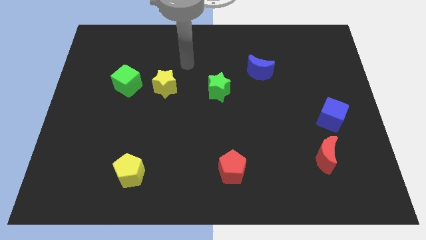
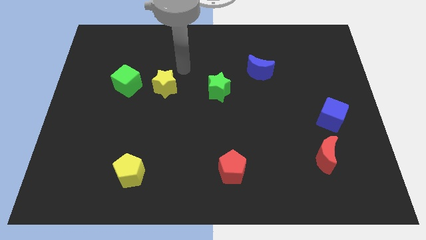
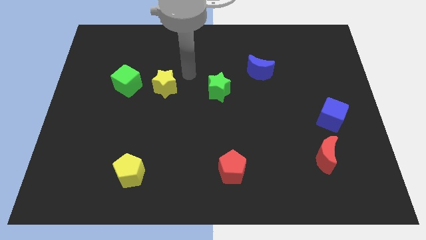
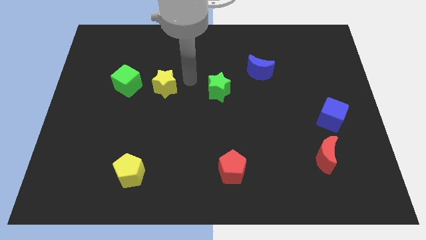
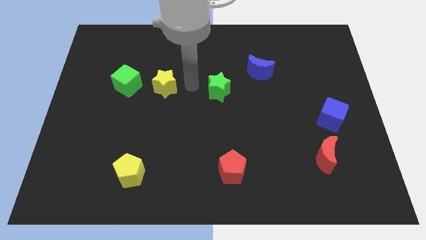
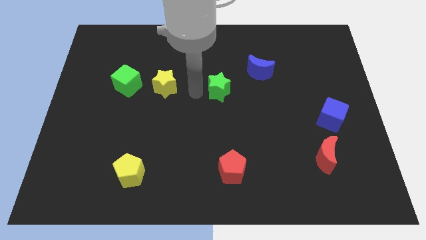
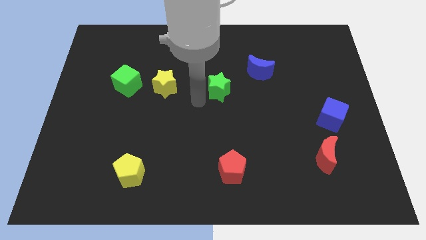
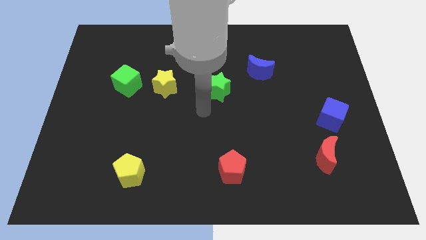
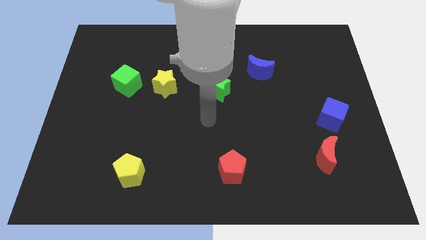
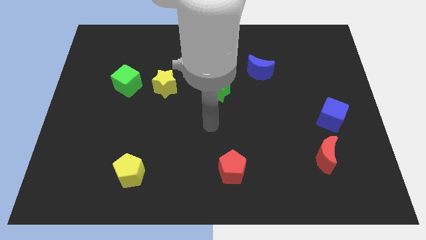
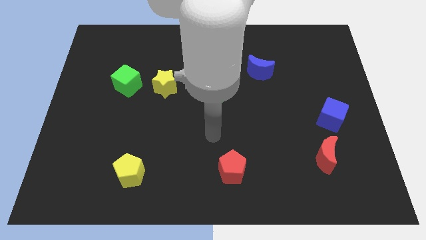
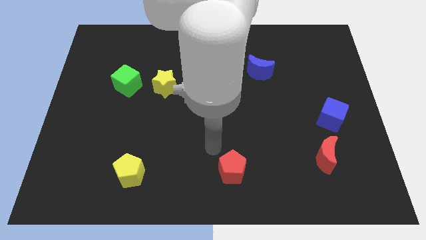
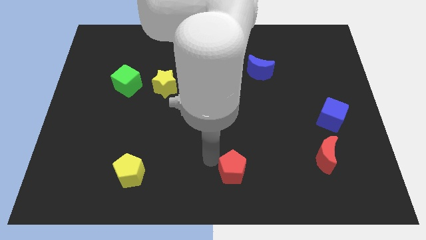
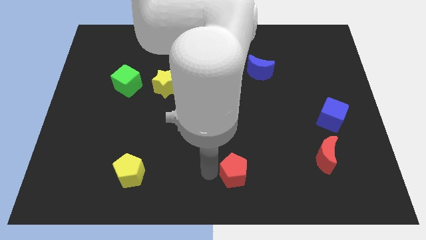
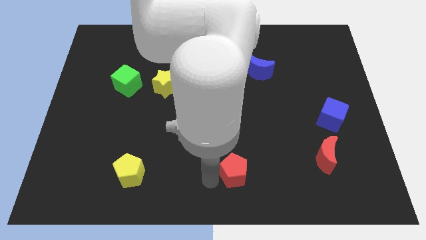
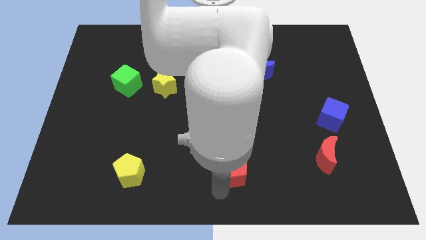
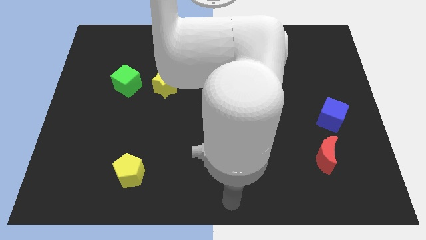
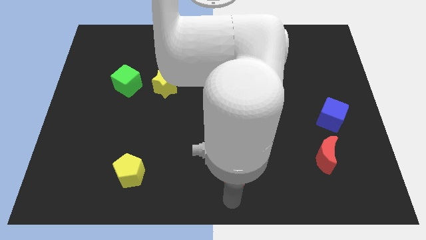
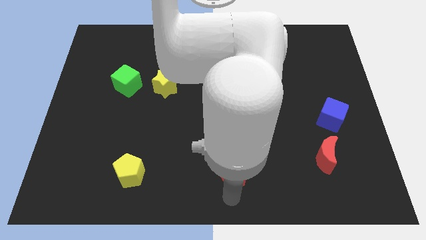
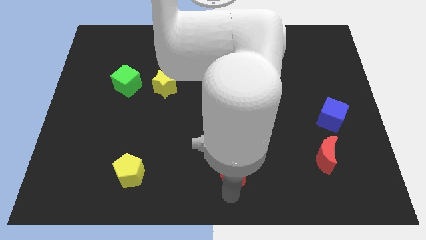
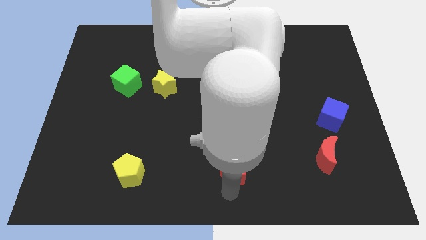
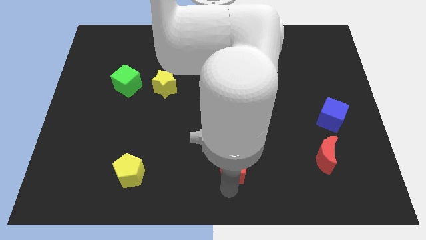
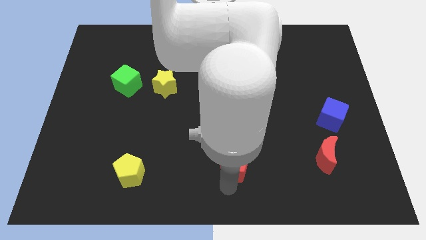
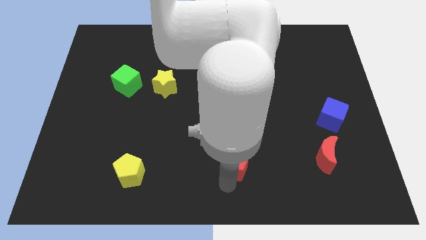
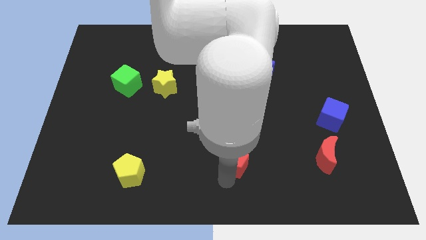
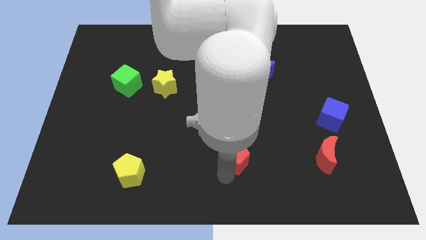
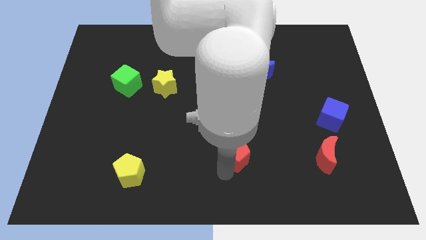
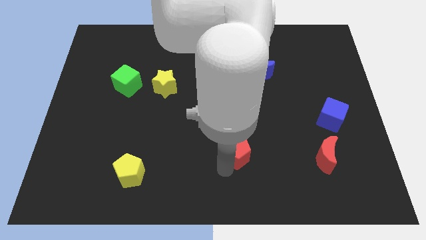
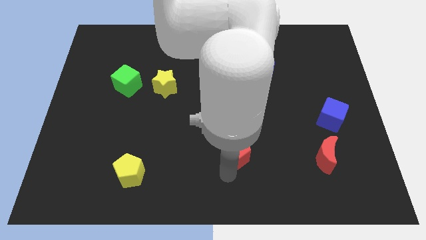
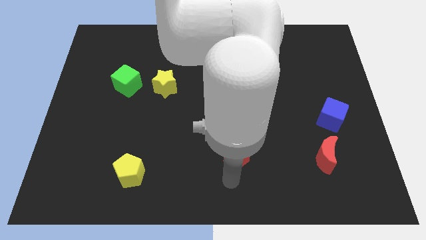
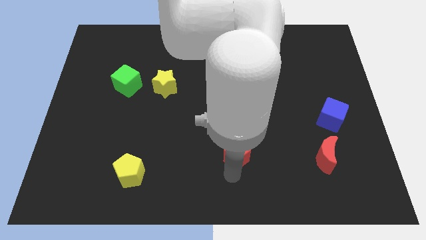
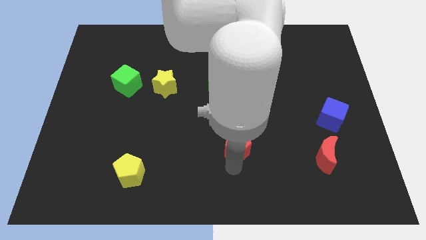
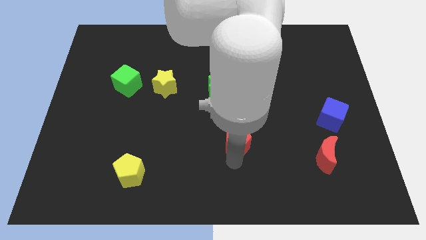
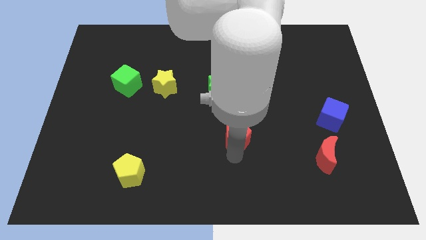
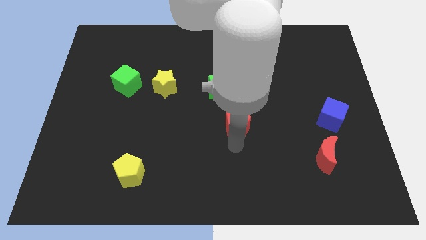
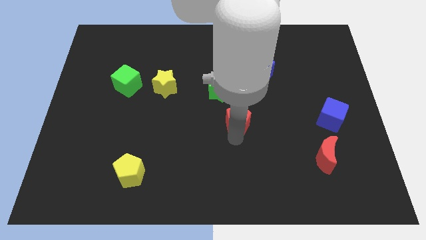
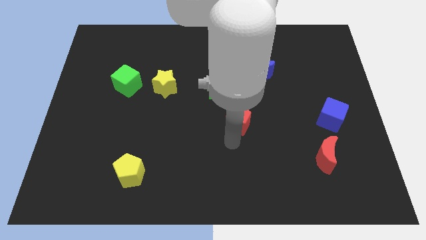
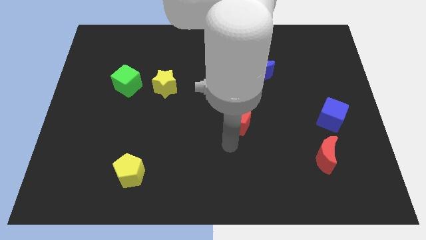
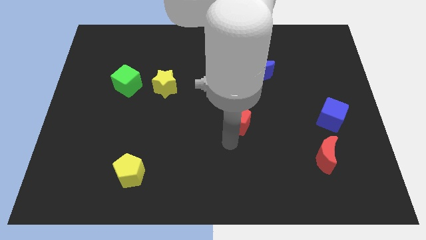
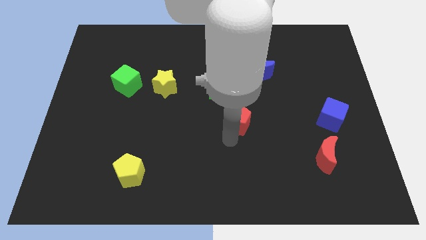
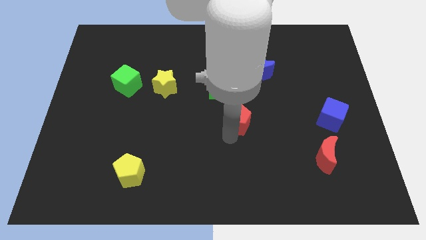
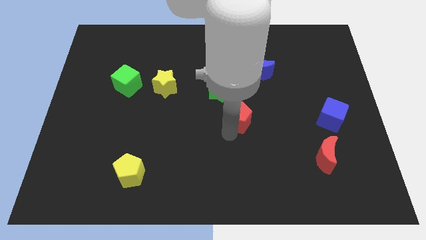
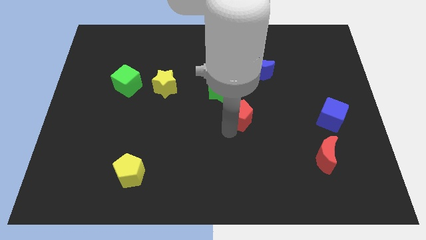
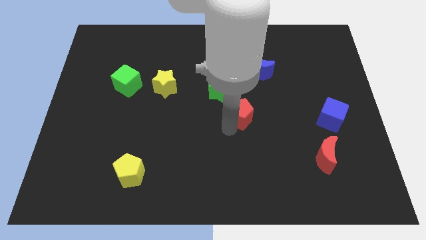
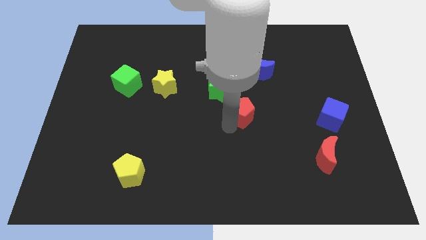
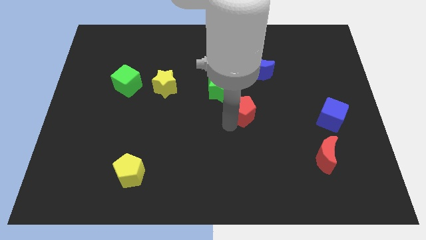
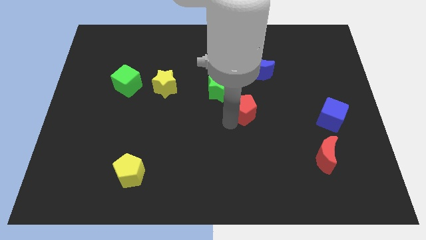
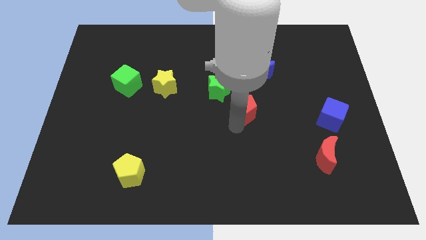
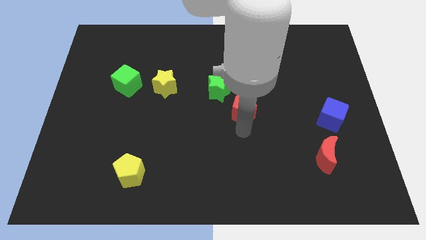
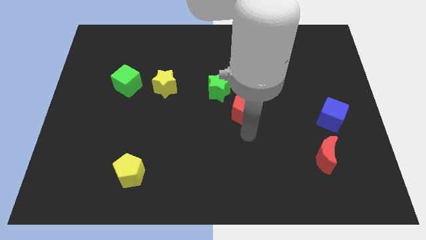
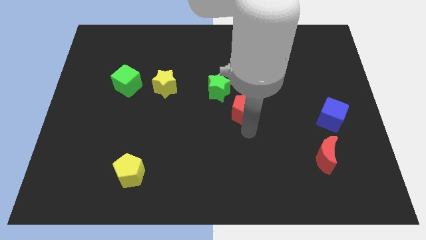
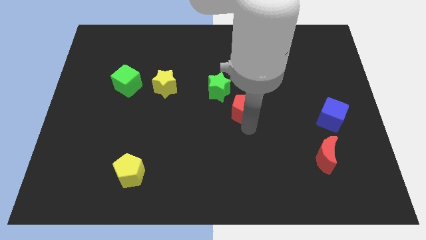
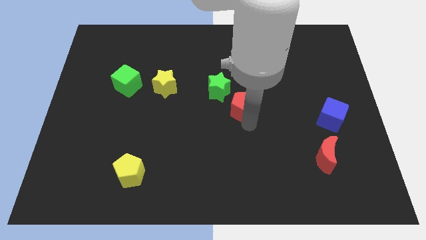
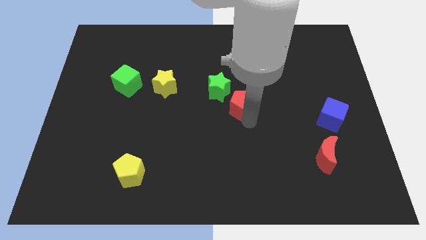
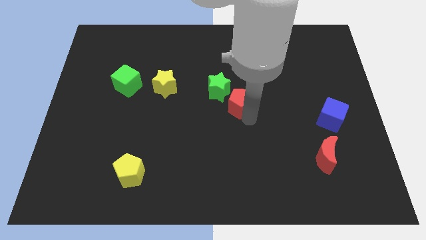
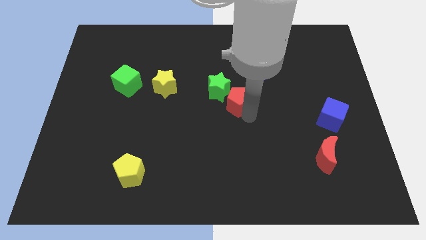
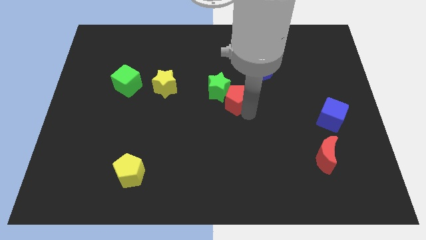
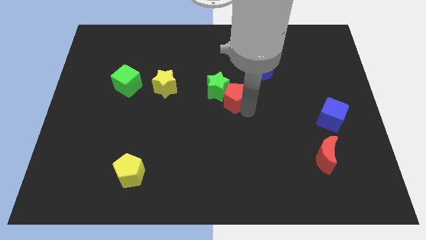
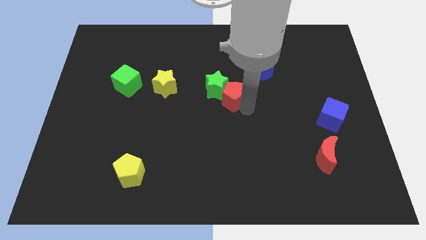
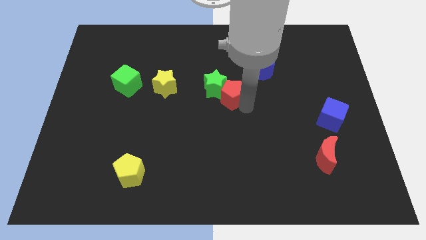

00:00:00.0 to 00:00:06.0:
push the red pentagon upwards

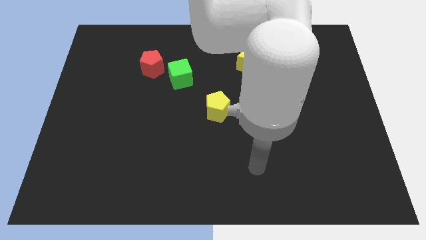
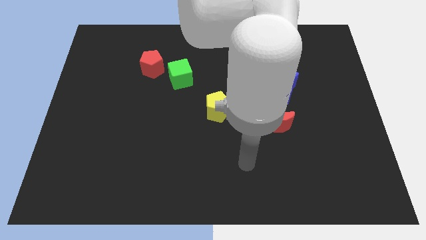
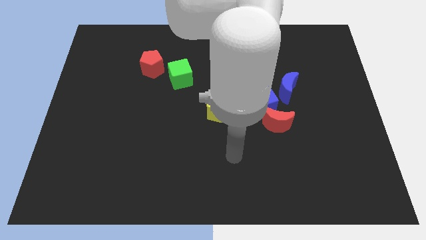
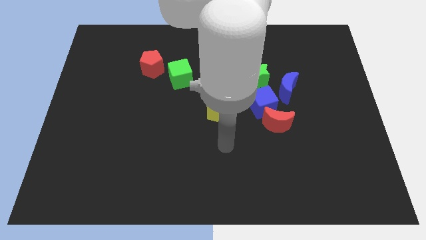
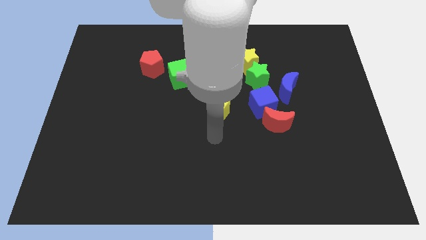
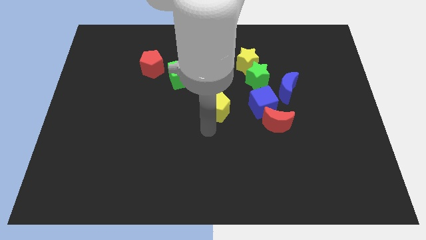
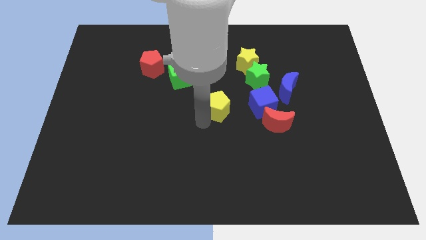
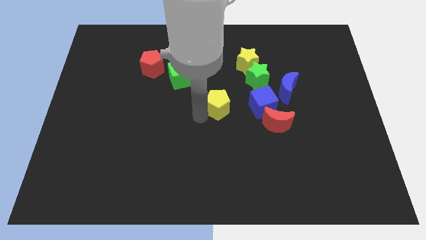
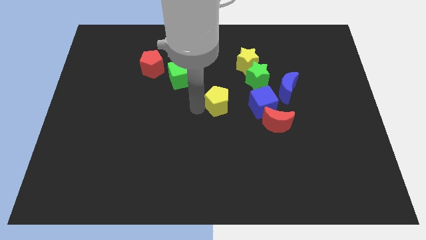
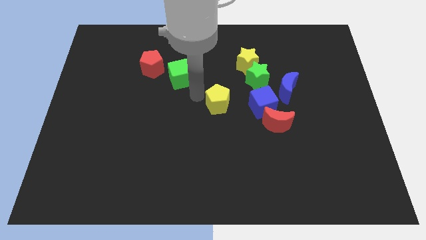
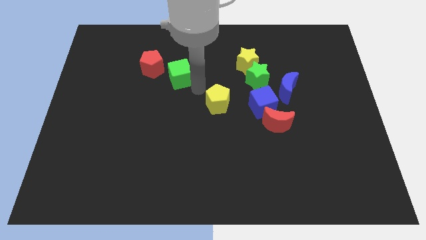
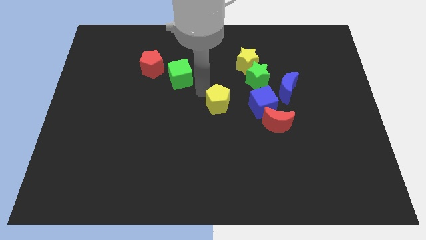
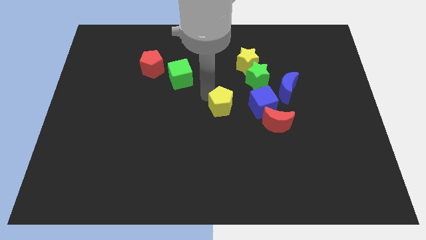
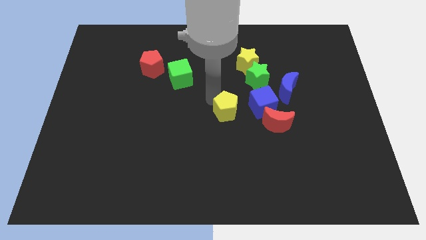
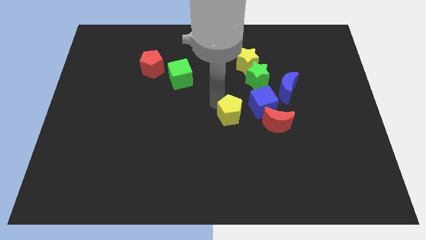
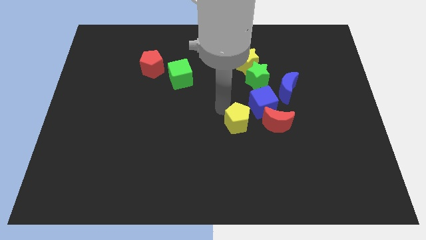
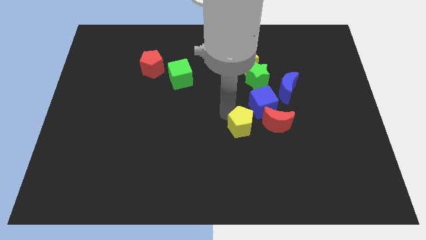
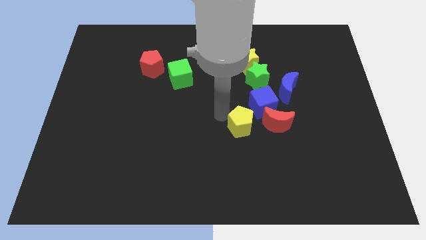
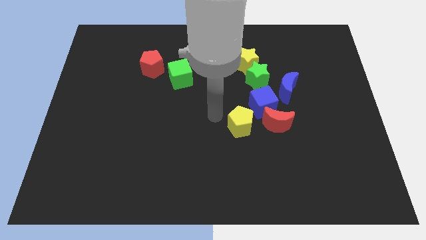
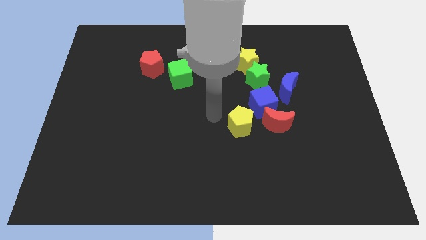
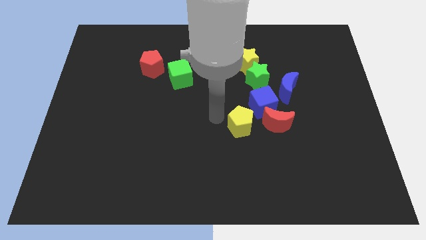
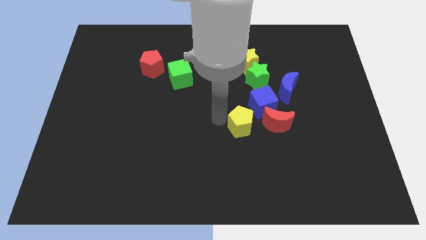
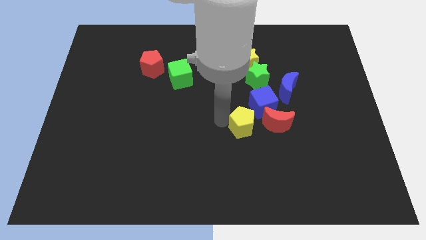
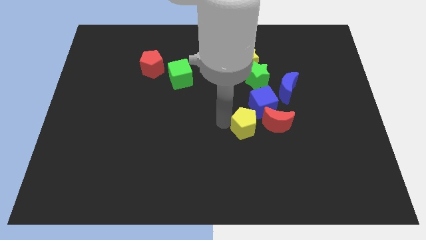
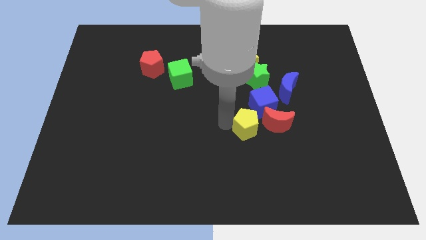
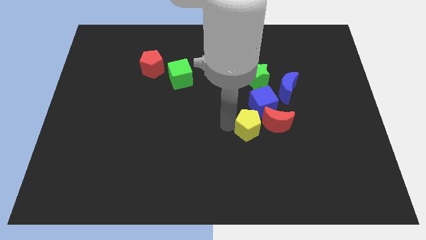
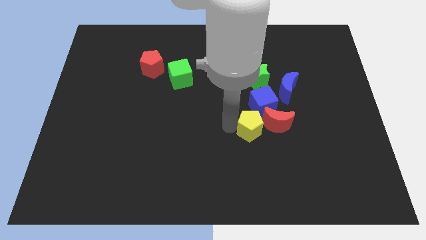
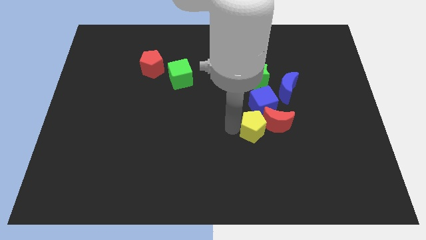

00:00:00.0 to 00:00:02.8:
move the yellow pentagon to the right somewhat
